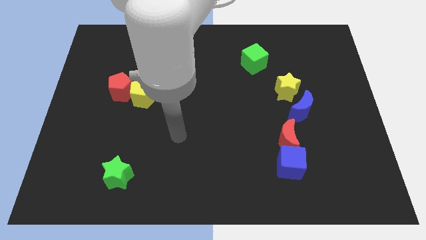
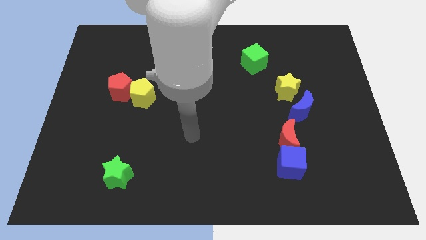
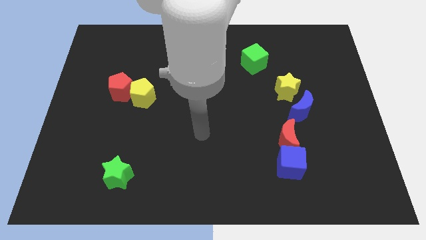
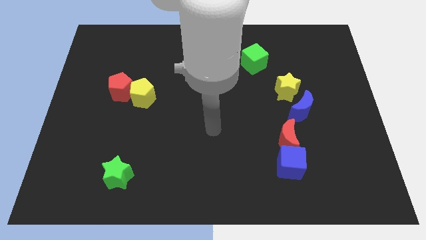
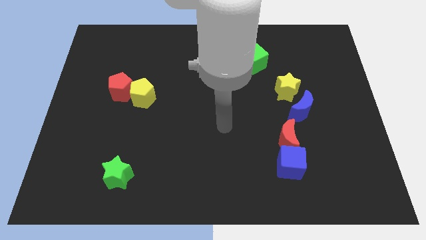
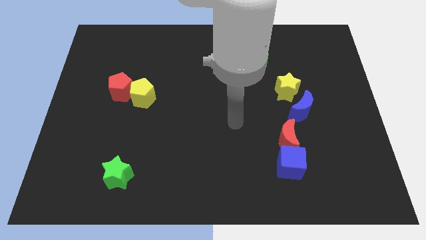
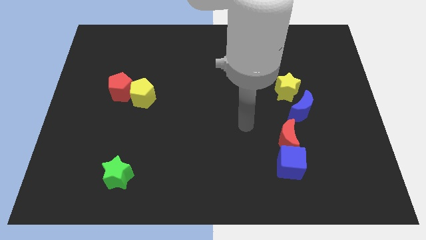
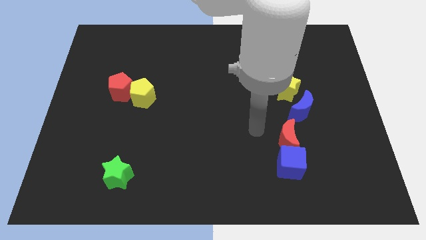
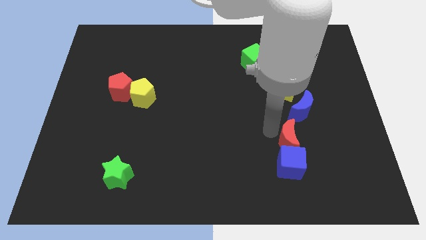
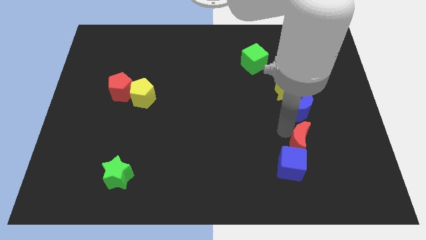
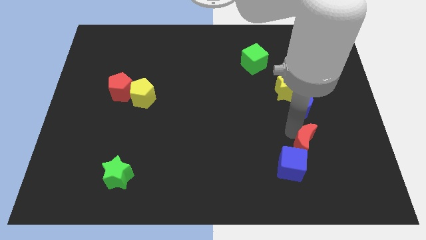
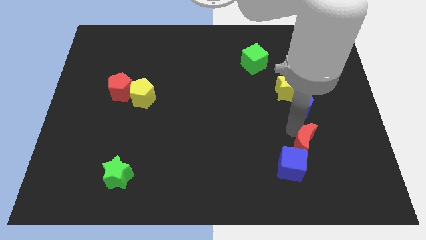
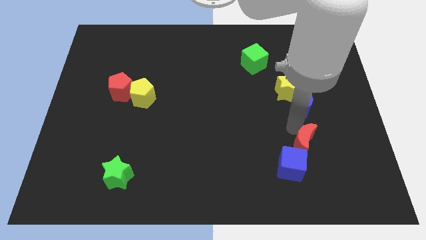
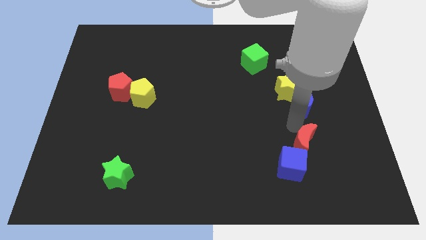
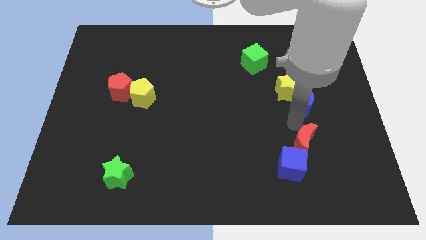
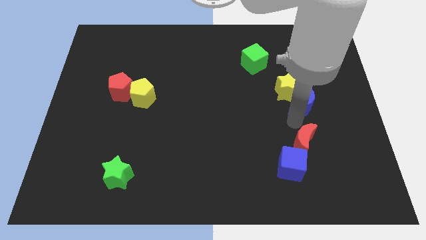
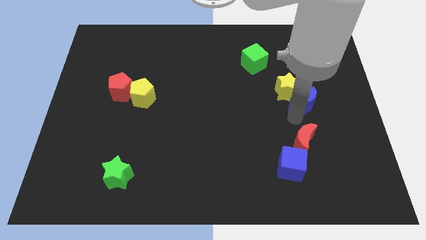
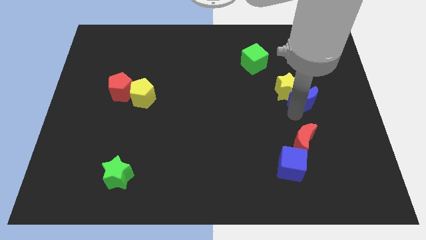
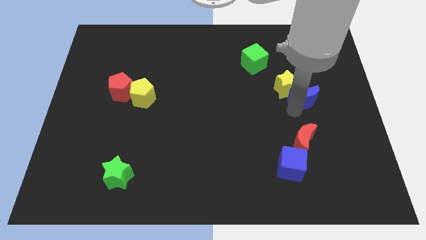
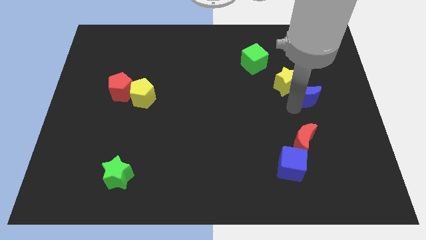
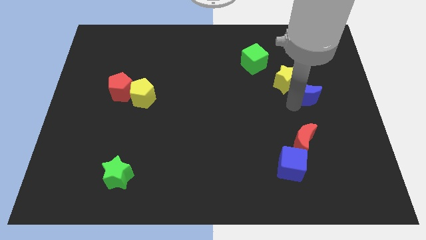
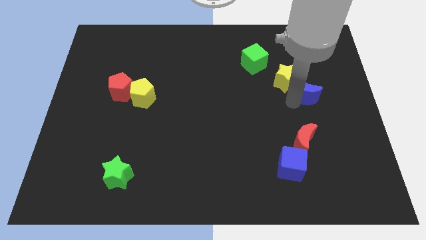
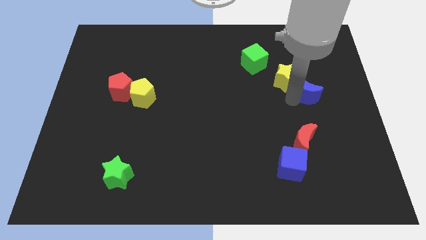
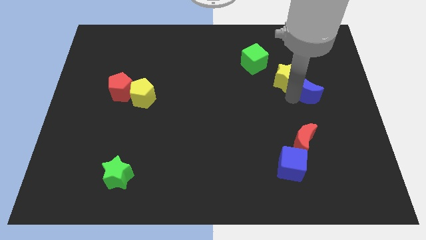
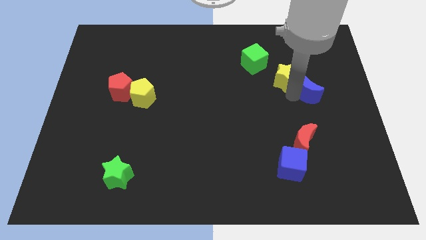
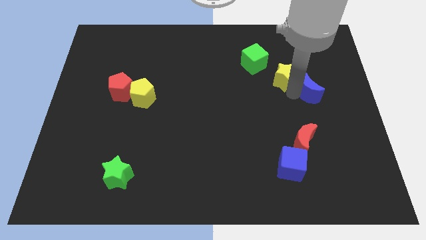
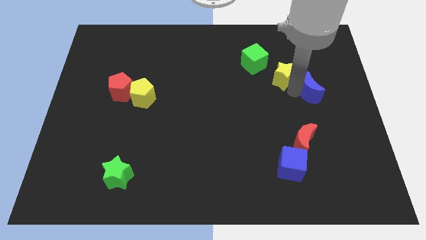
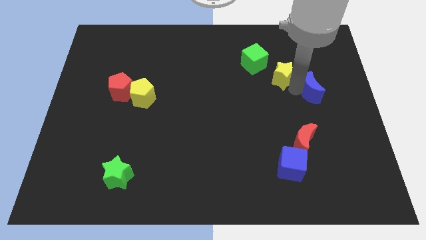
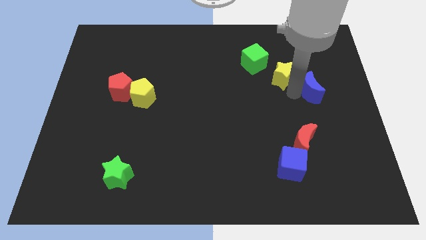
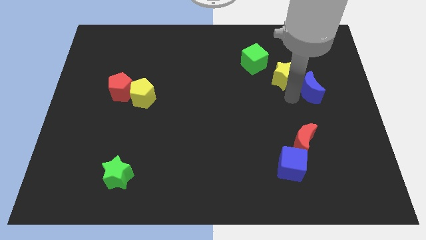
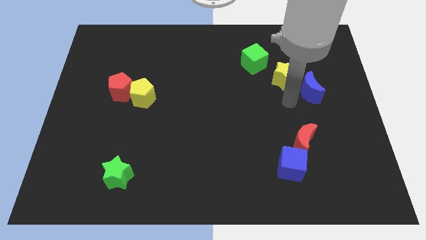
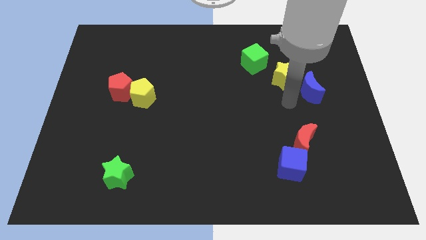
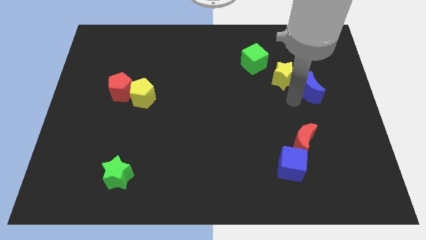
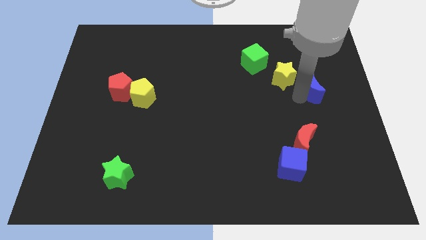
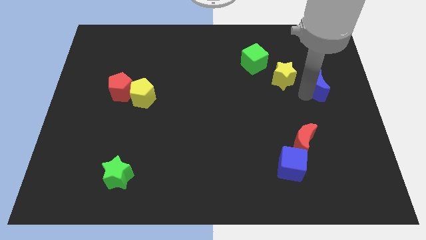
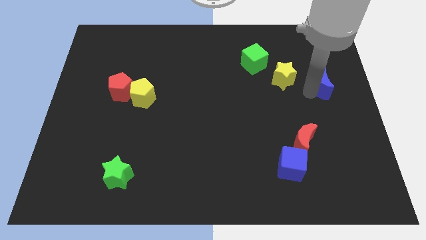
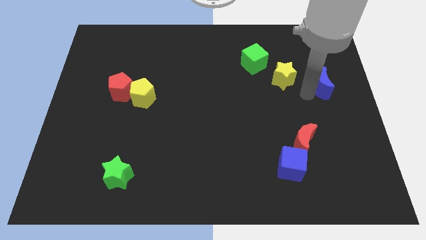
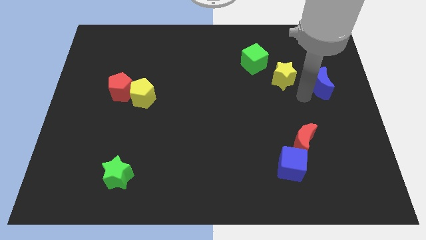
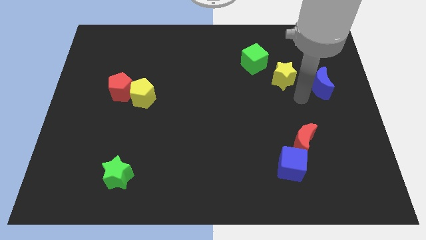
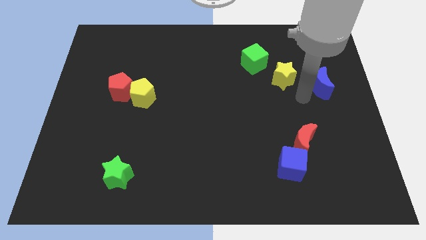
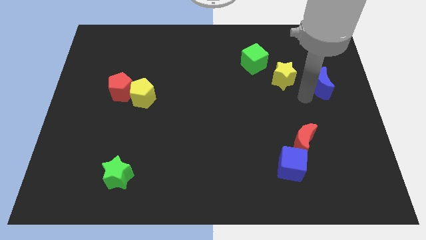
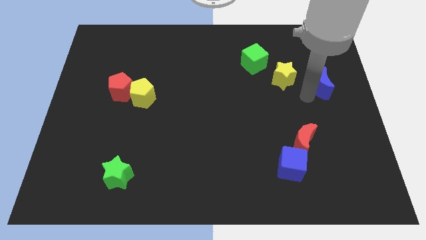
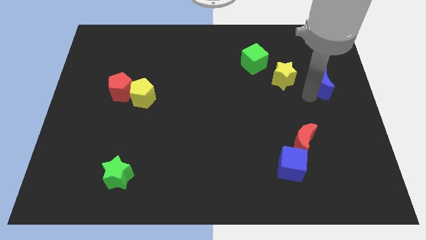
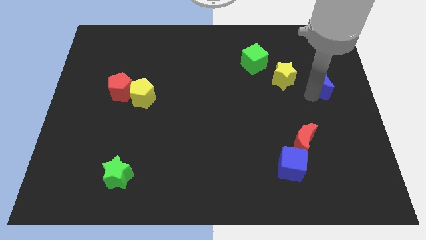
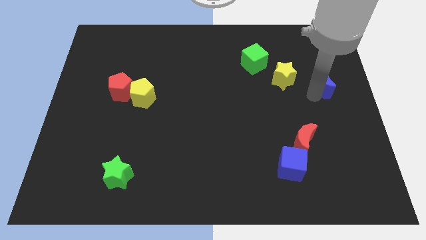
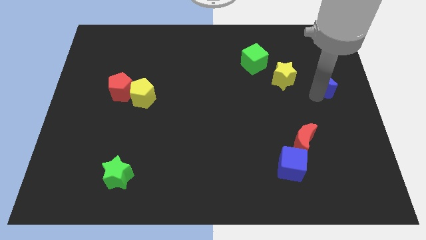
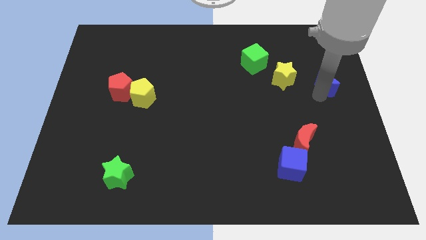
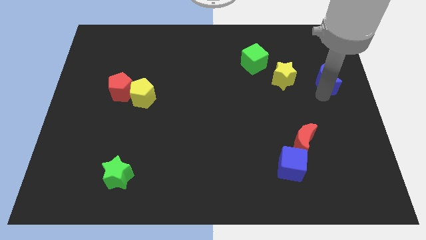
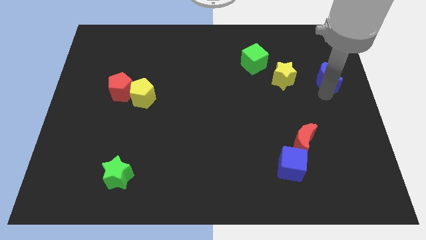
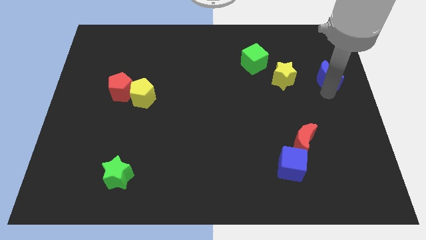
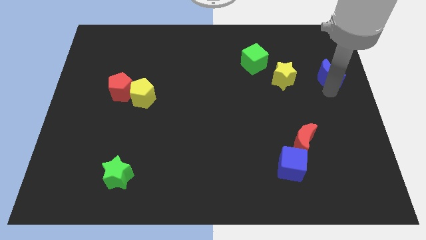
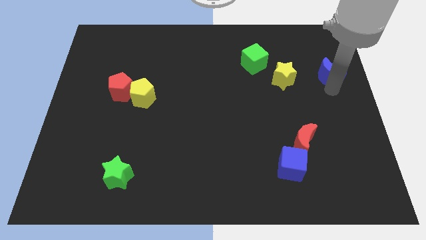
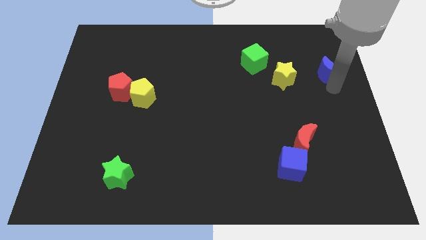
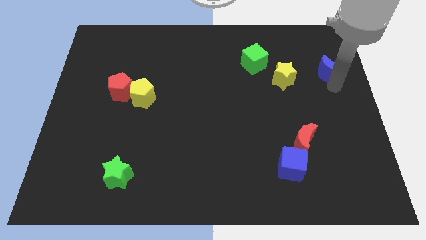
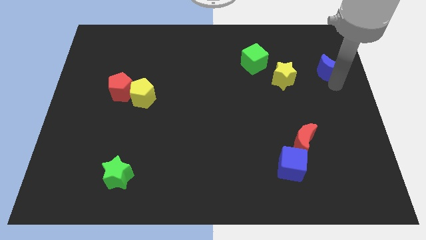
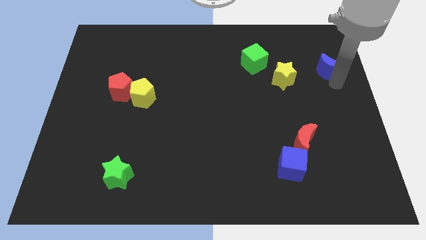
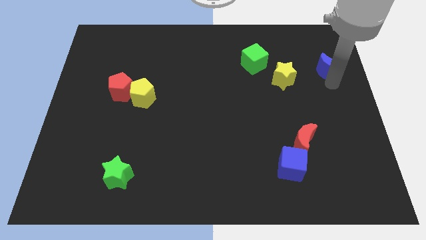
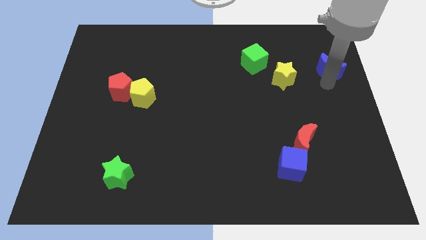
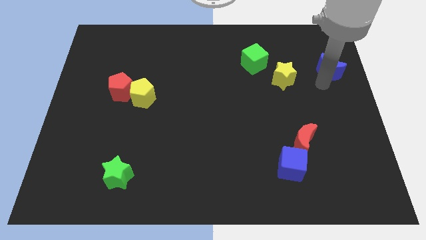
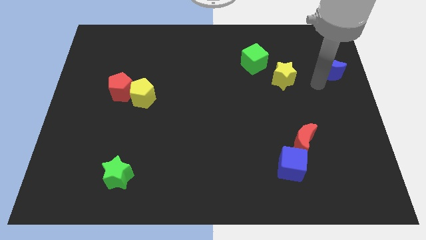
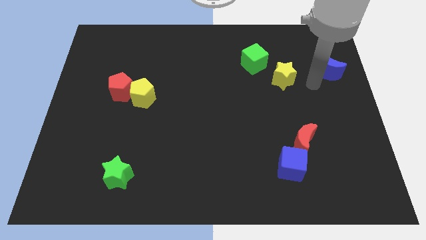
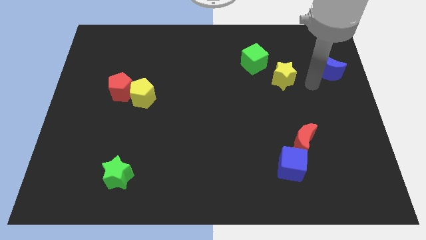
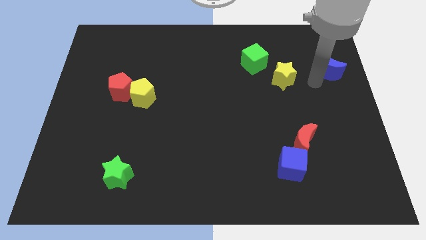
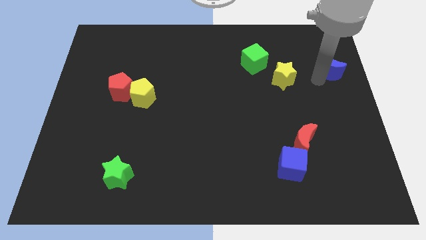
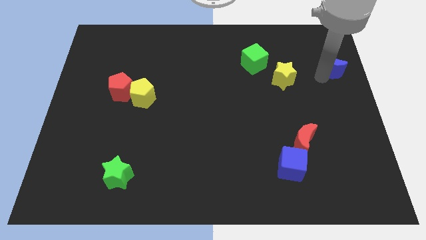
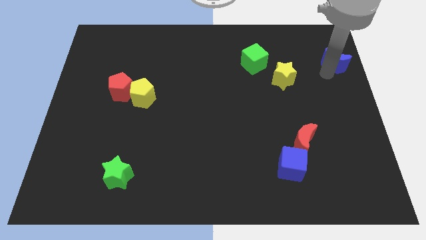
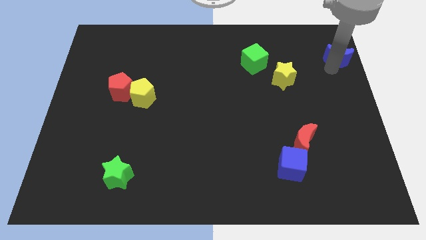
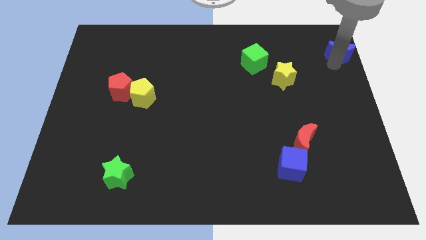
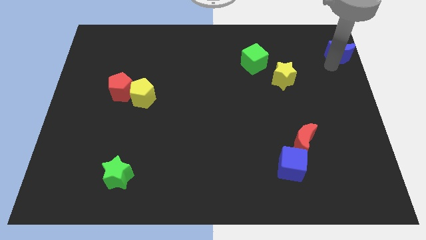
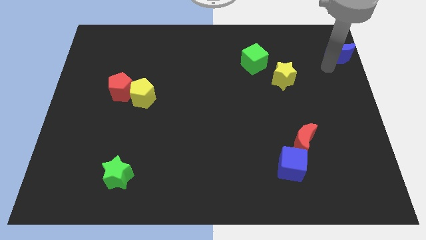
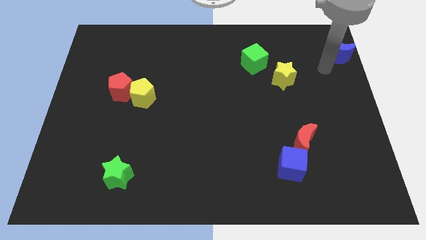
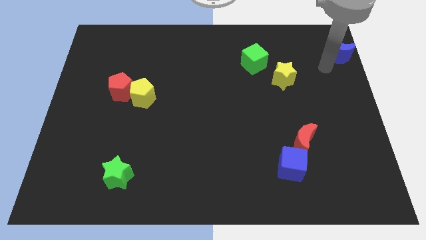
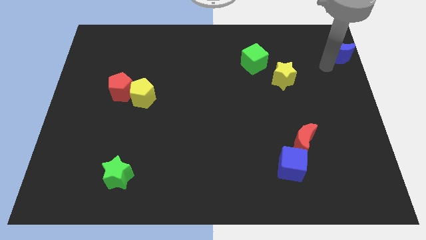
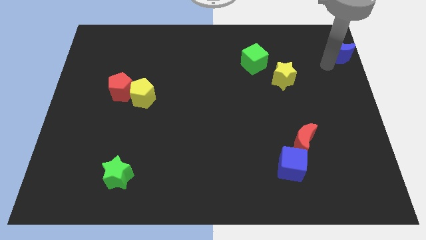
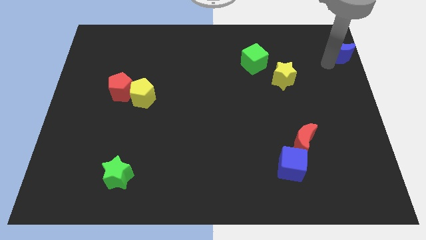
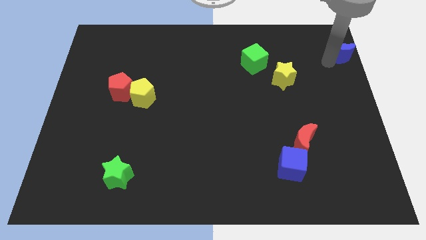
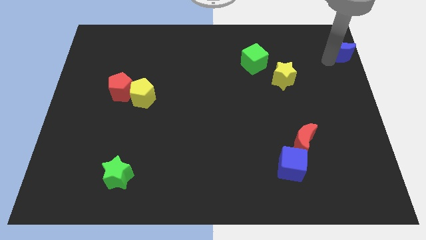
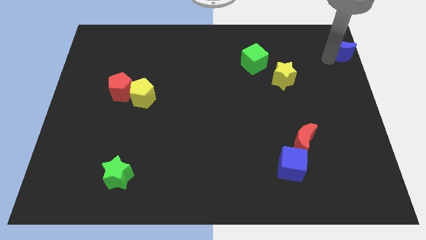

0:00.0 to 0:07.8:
move the blue moon to the top right
